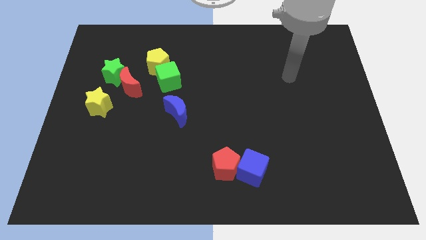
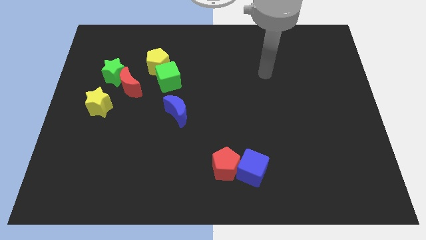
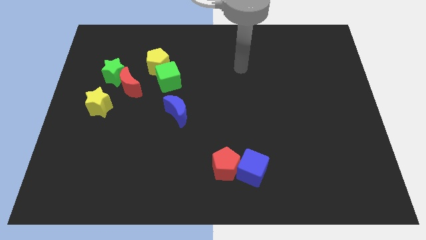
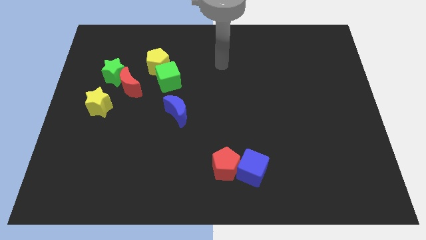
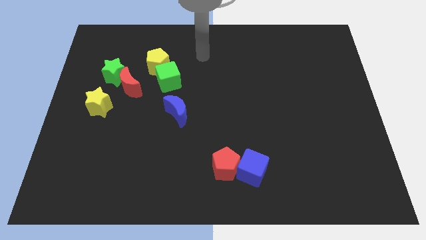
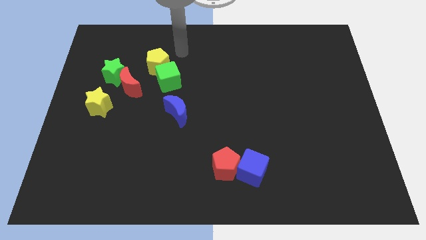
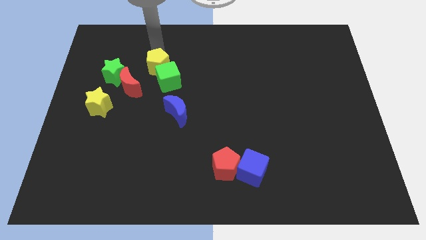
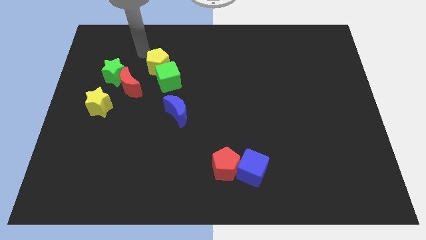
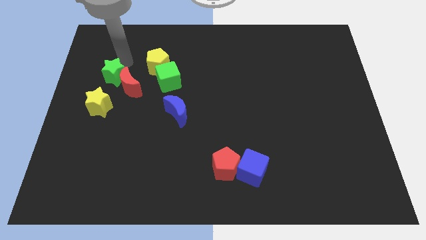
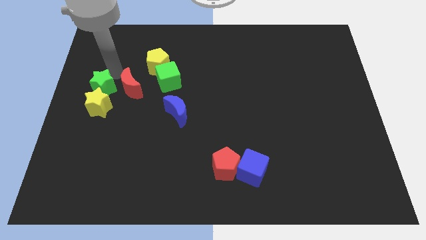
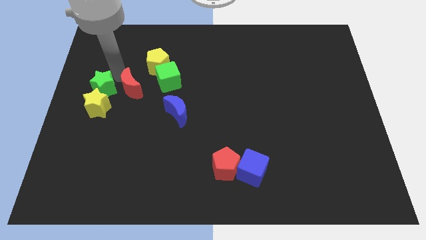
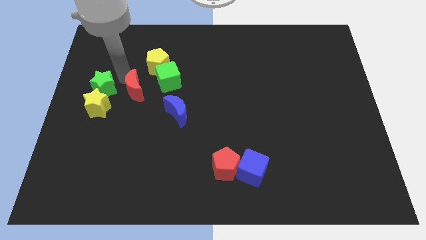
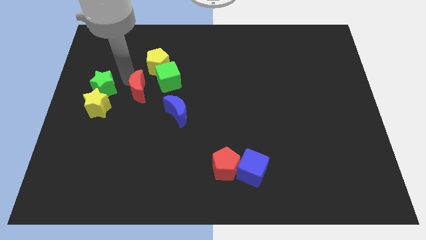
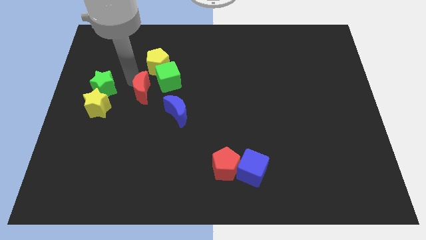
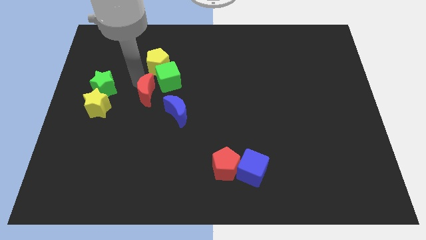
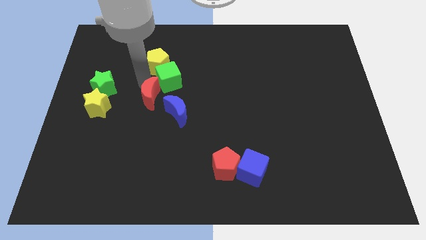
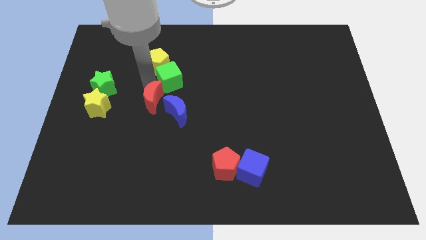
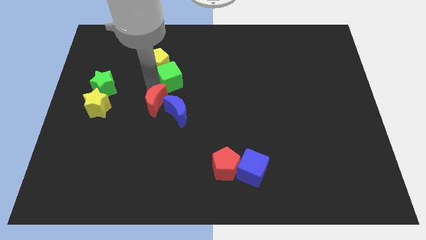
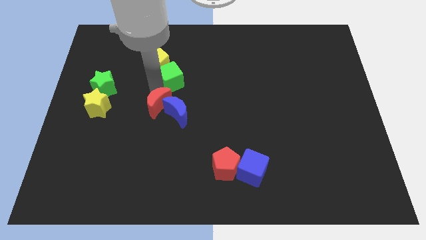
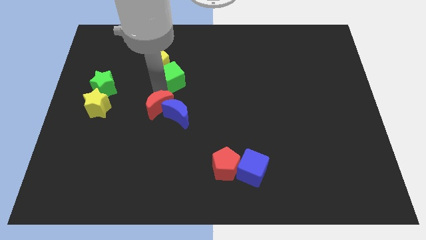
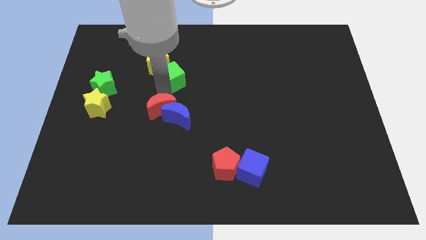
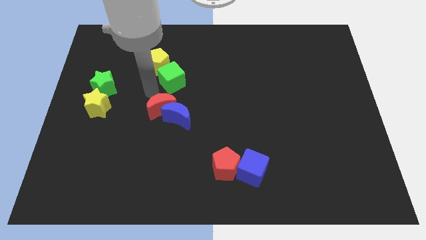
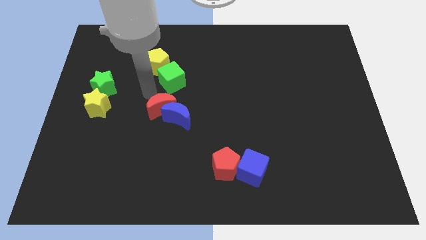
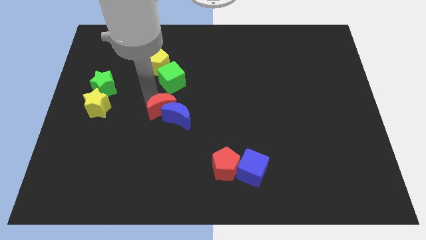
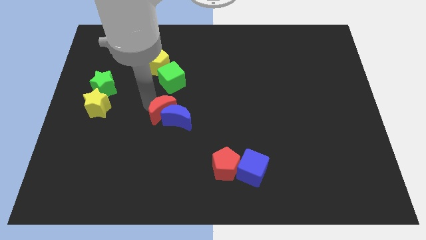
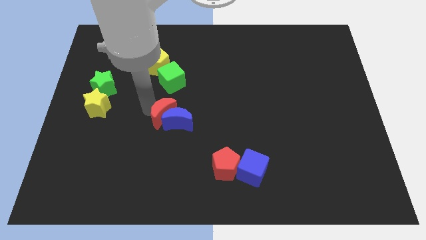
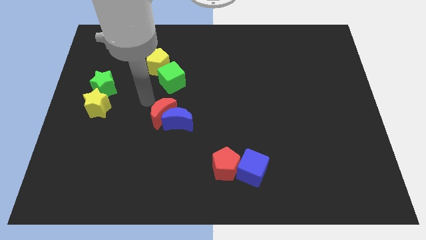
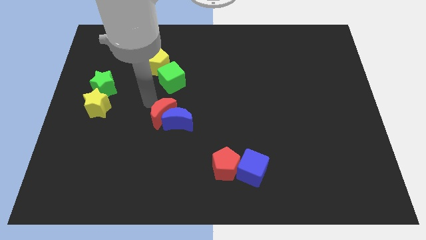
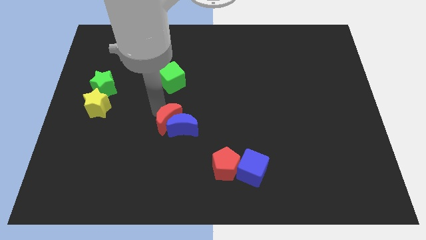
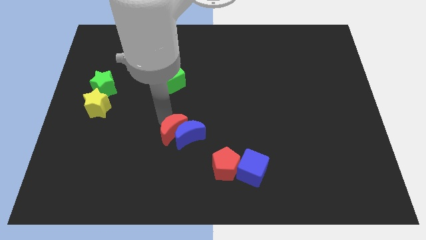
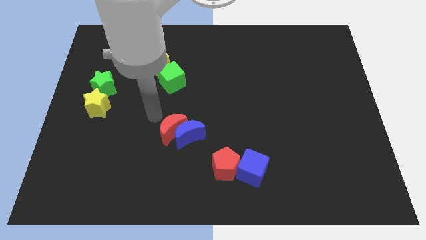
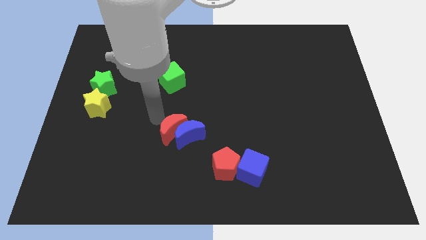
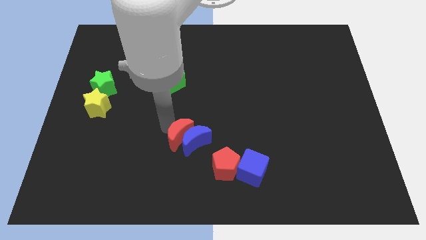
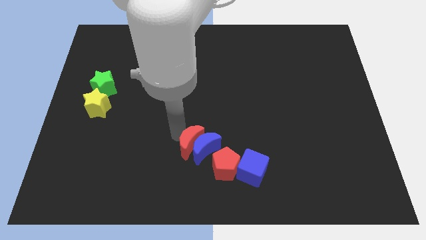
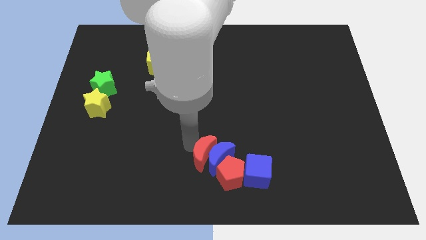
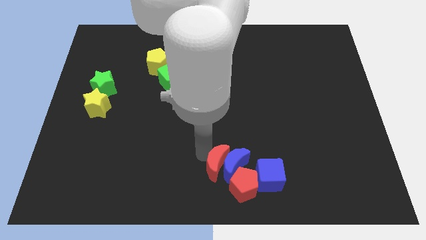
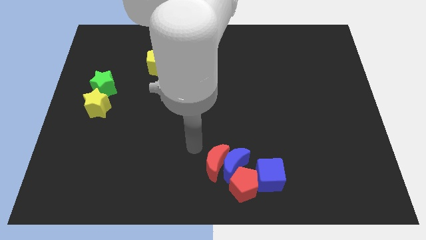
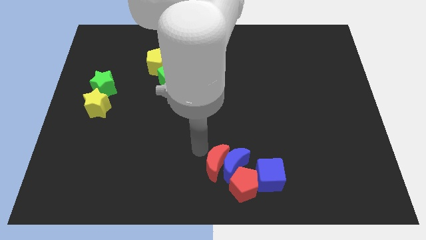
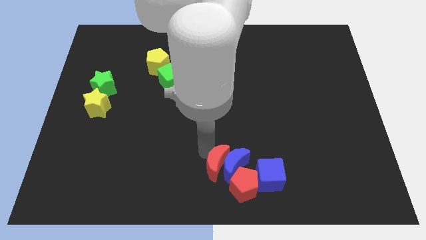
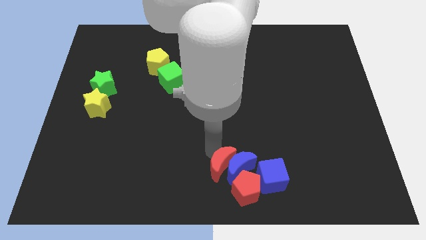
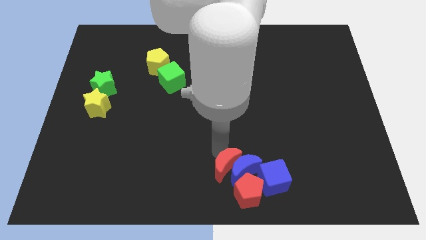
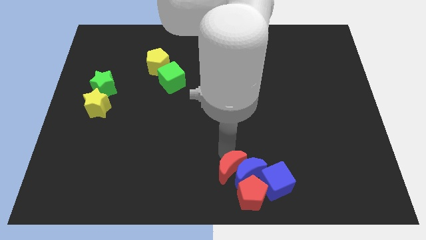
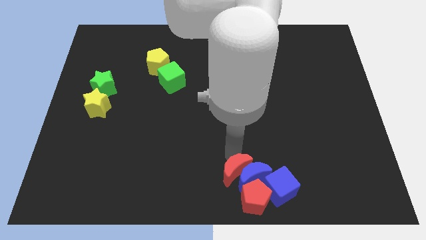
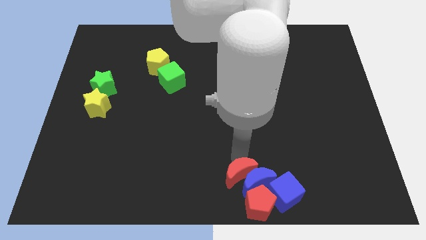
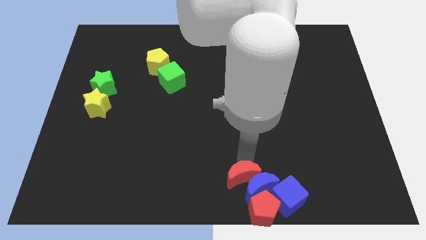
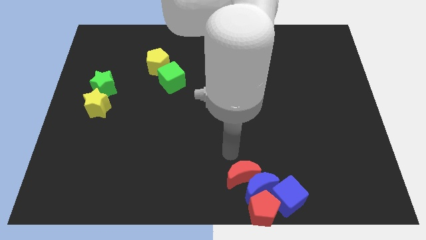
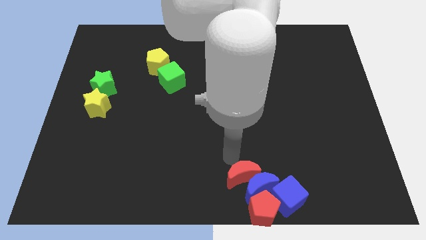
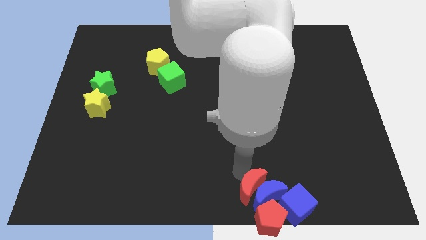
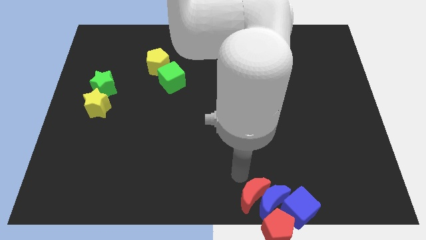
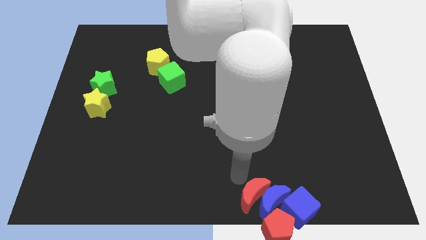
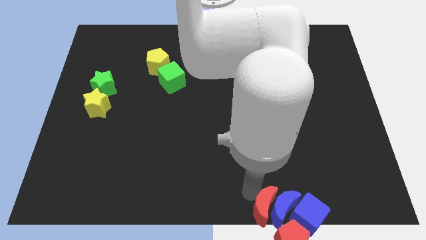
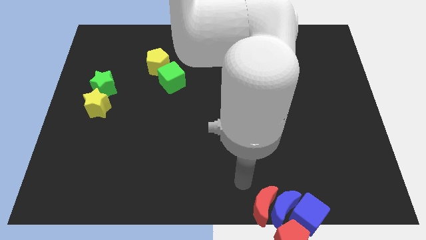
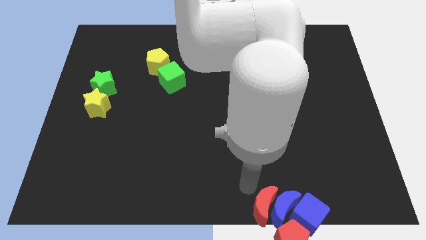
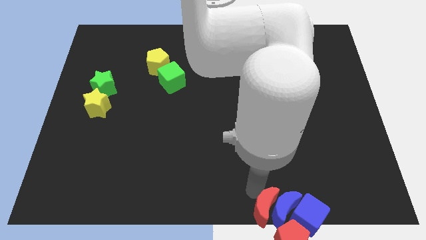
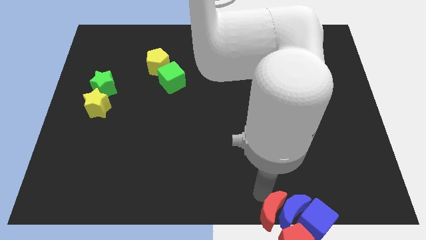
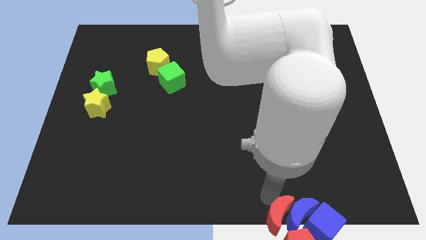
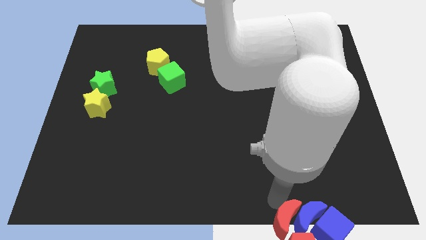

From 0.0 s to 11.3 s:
slide the red moon towards the red pentagon

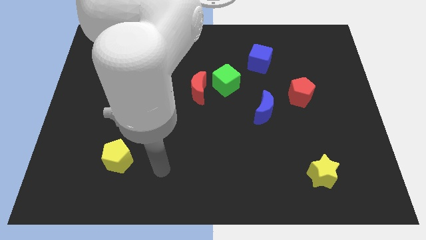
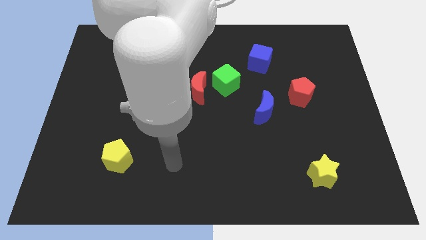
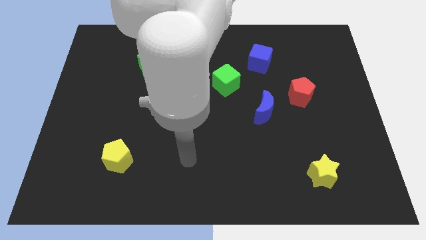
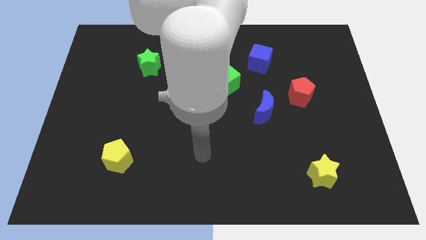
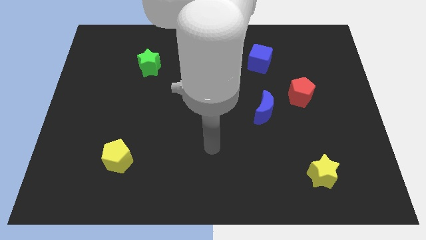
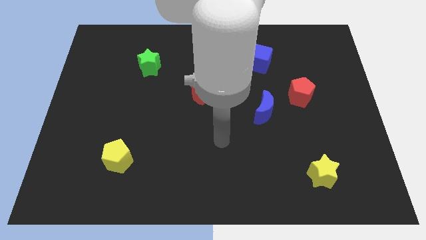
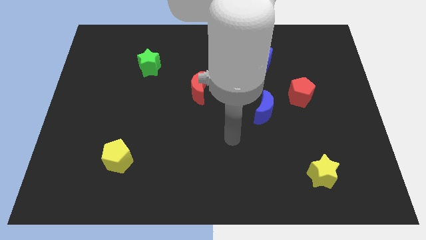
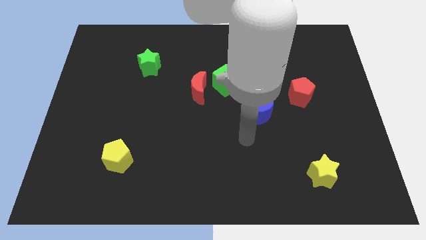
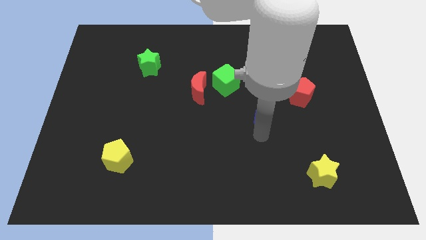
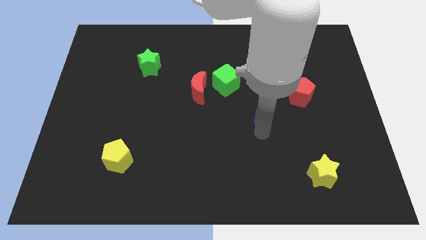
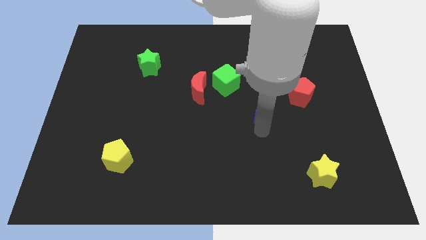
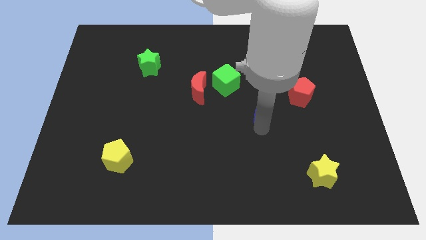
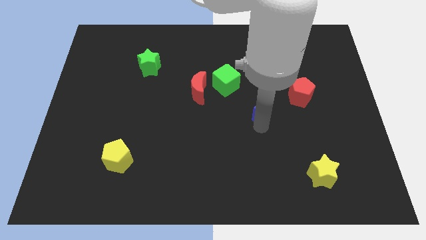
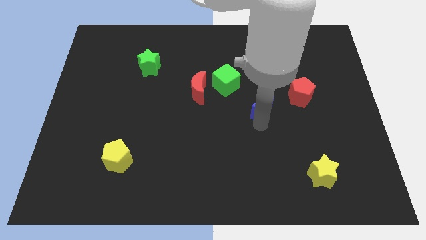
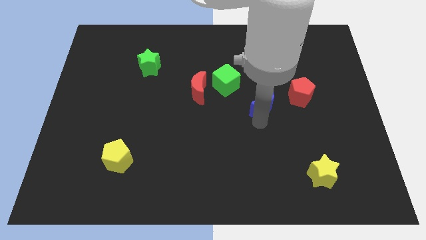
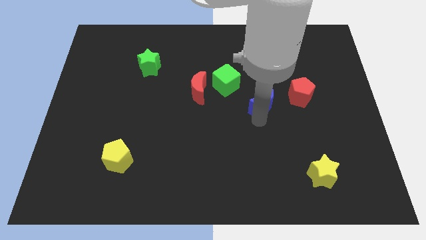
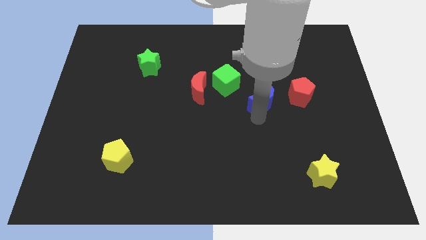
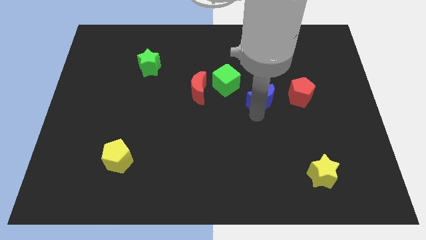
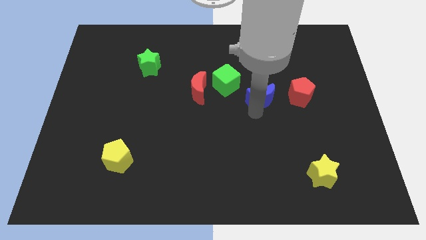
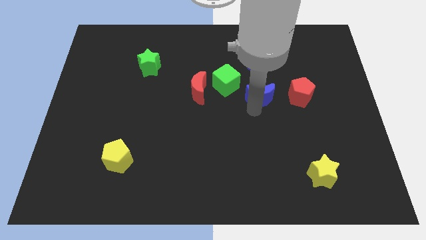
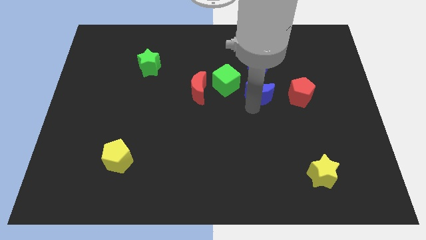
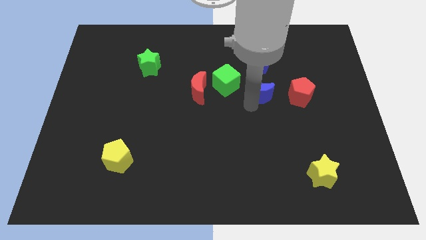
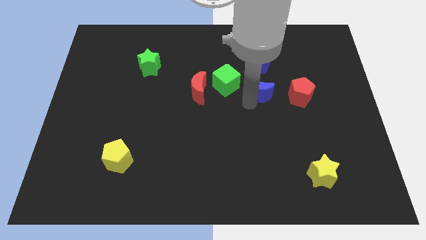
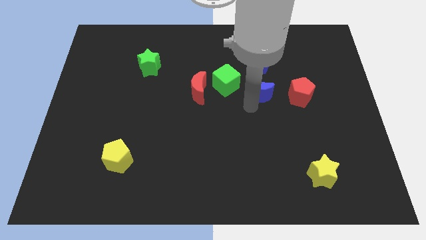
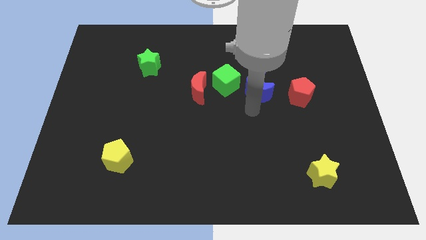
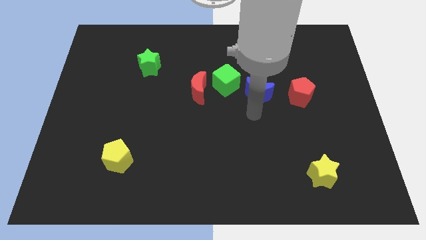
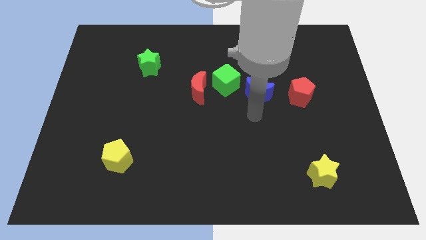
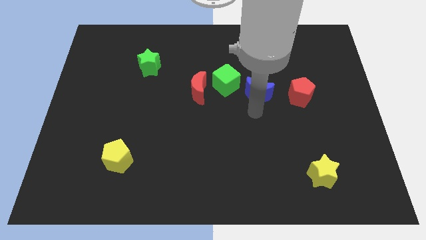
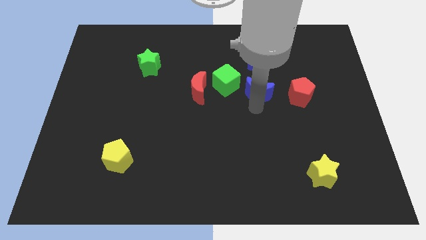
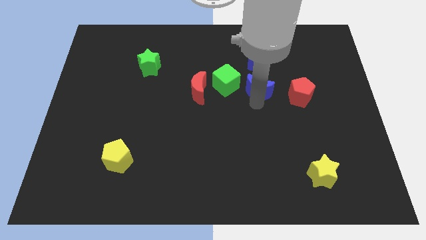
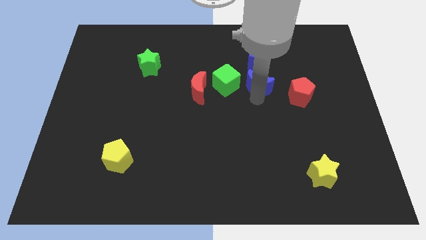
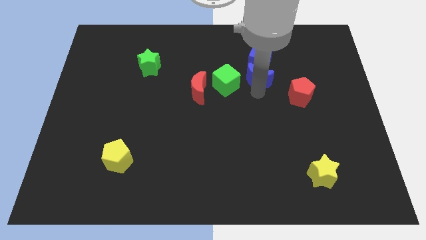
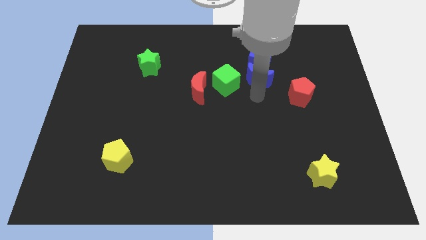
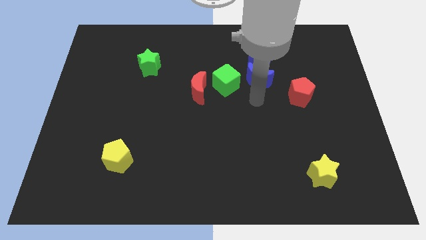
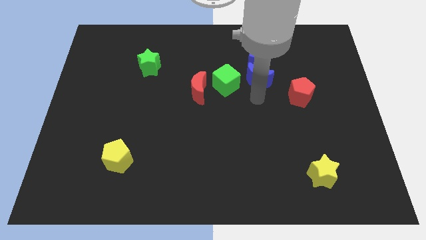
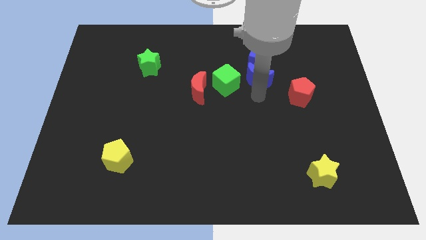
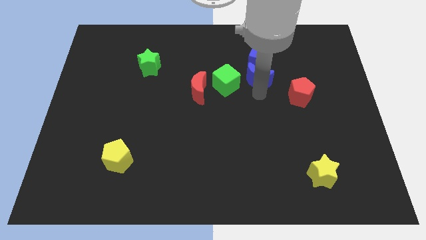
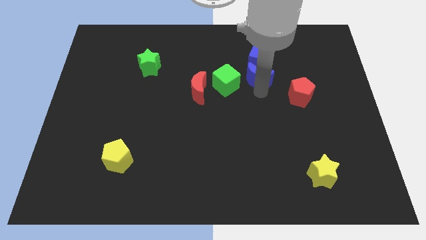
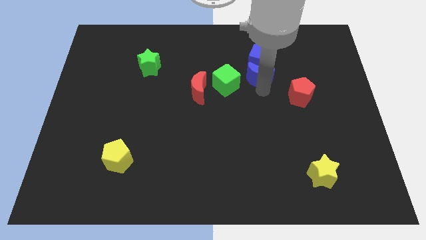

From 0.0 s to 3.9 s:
move the blue moon towards the blue cube
